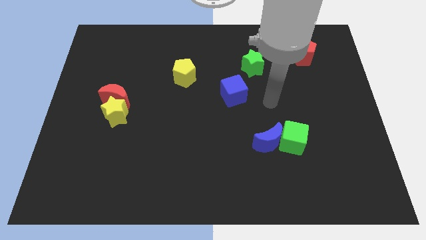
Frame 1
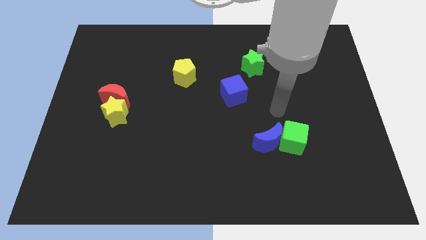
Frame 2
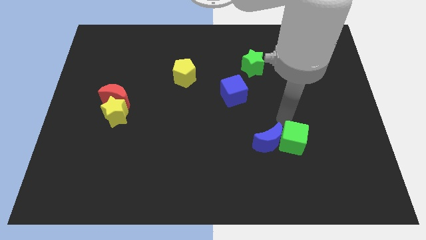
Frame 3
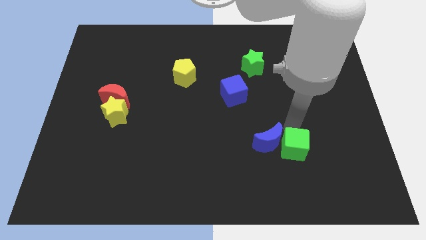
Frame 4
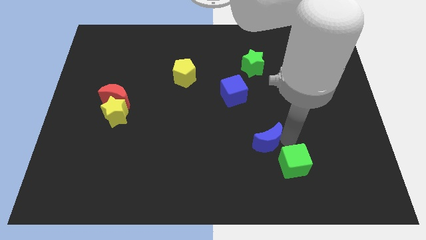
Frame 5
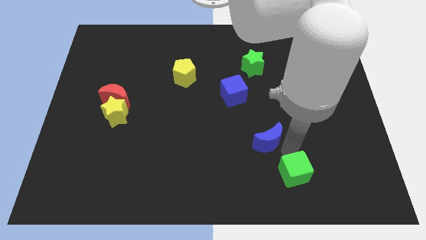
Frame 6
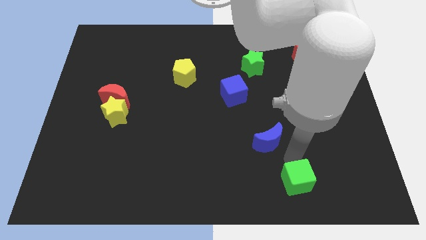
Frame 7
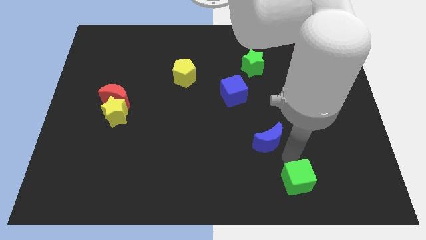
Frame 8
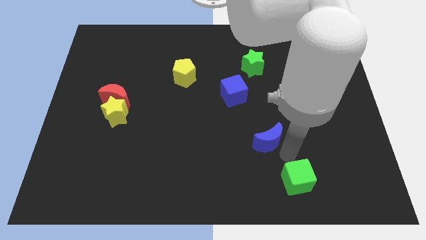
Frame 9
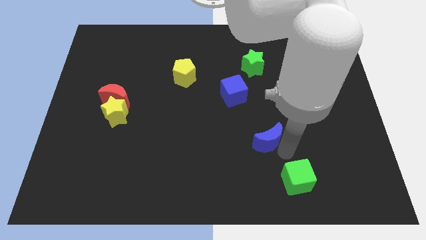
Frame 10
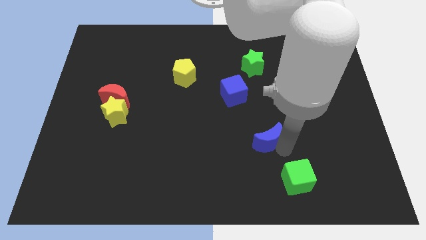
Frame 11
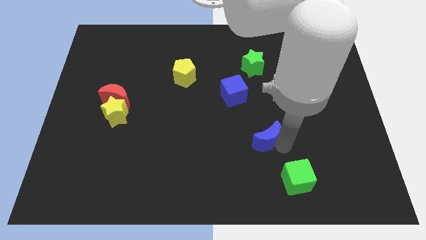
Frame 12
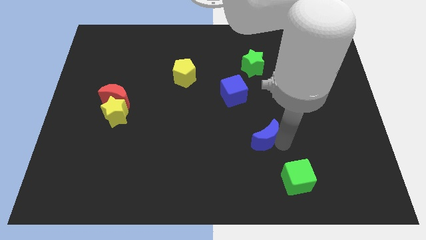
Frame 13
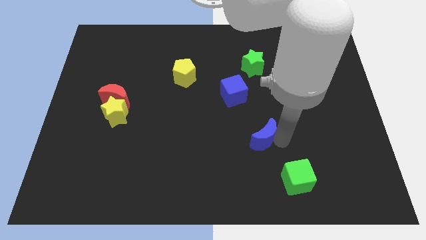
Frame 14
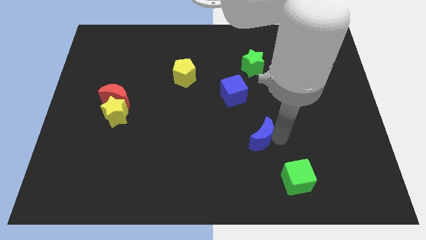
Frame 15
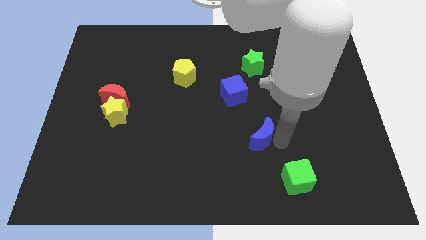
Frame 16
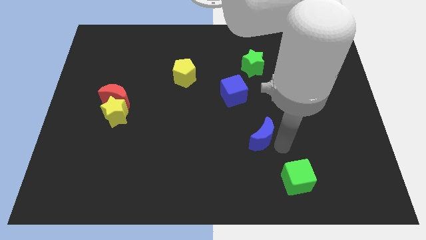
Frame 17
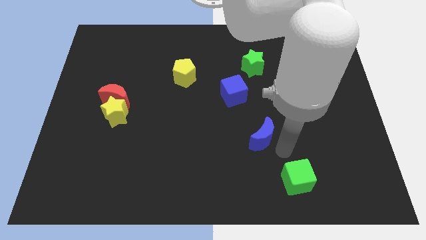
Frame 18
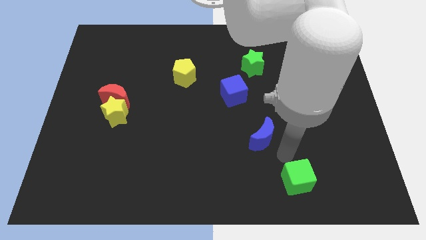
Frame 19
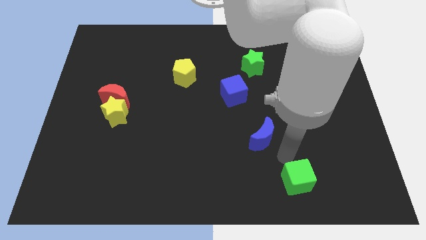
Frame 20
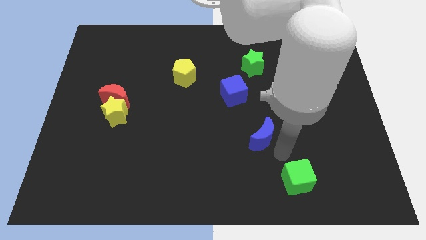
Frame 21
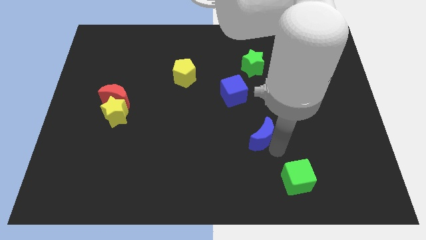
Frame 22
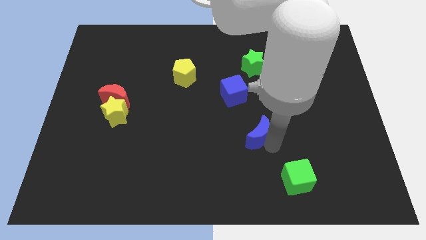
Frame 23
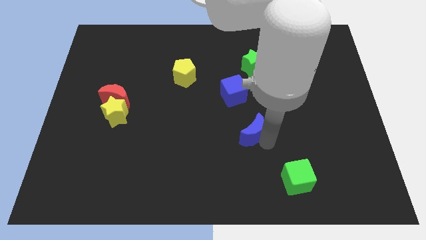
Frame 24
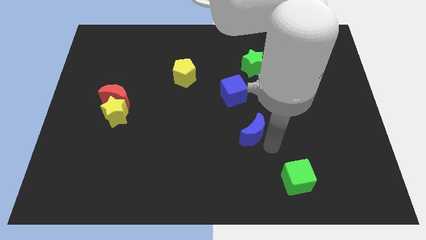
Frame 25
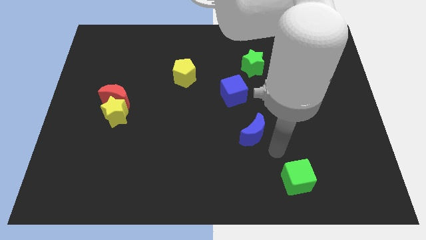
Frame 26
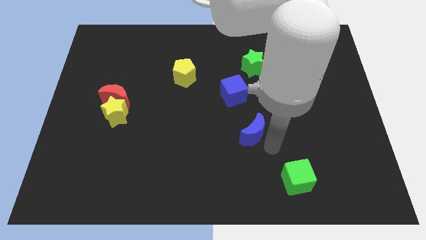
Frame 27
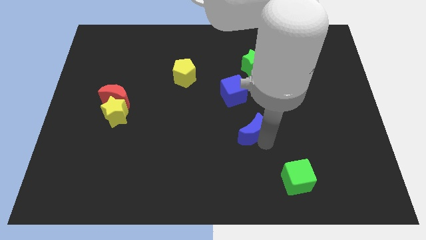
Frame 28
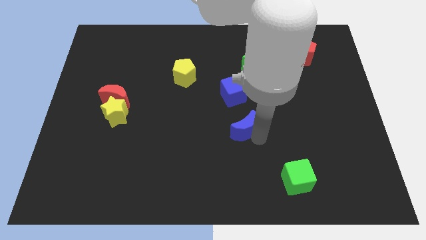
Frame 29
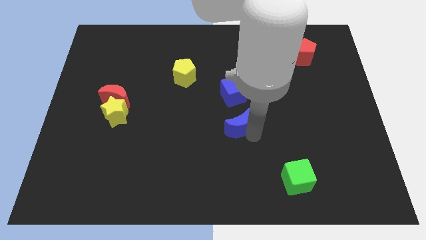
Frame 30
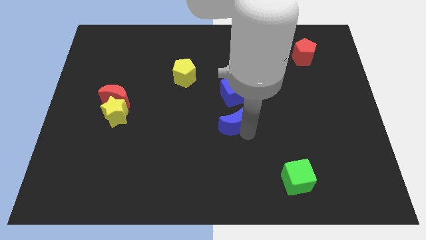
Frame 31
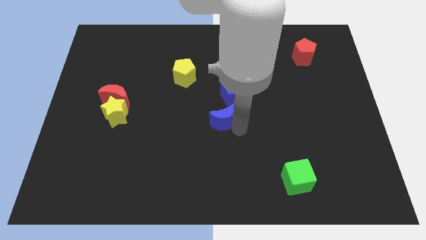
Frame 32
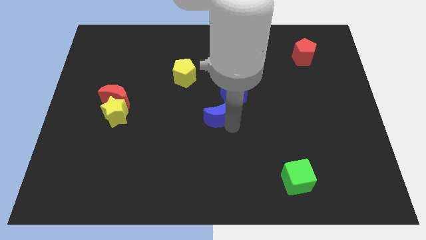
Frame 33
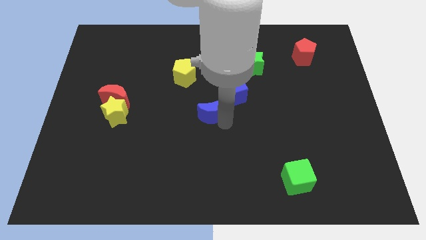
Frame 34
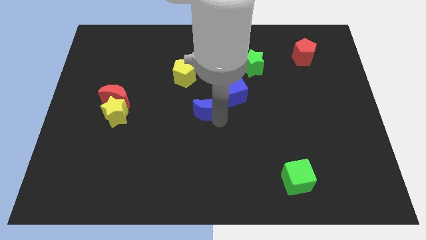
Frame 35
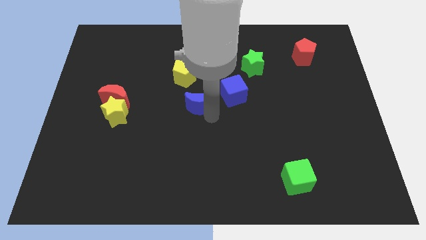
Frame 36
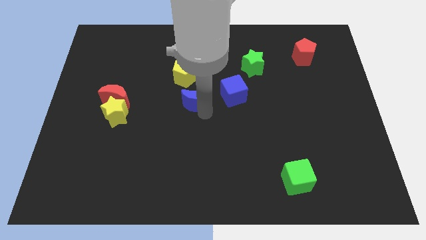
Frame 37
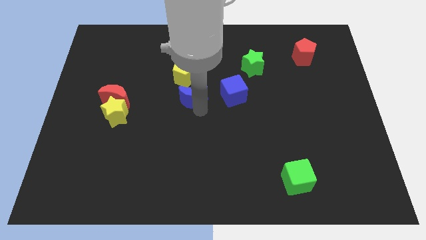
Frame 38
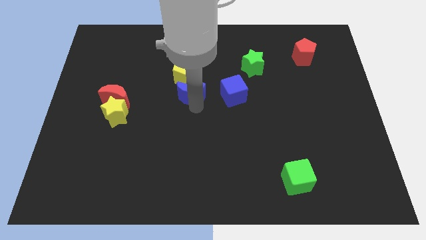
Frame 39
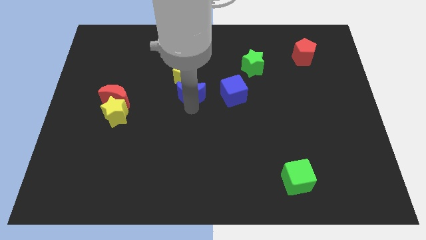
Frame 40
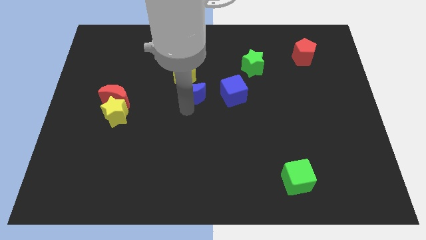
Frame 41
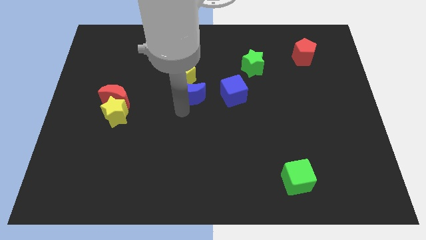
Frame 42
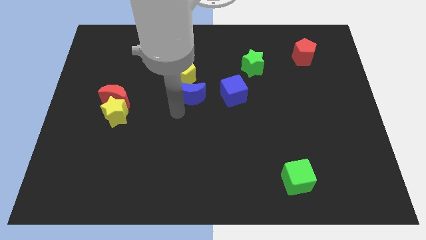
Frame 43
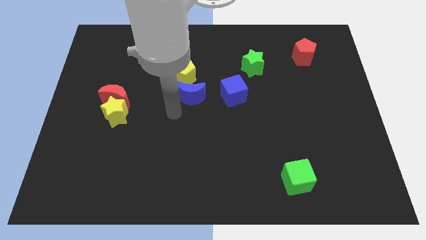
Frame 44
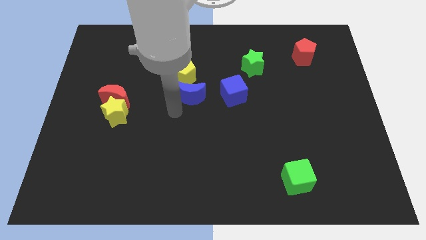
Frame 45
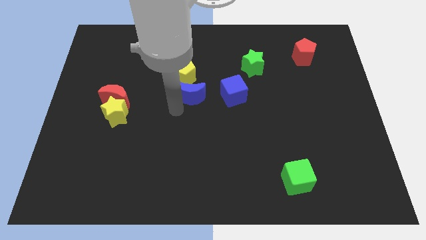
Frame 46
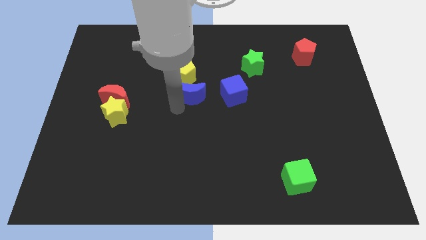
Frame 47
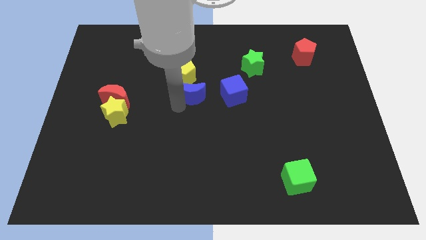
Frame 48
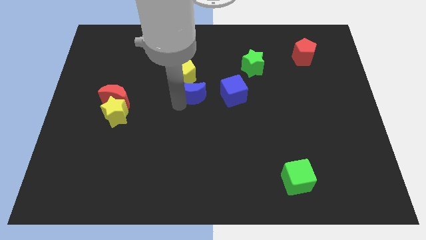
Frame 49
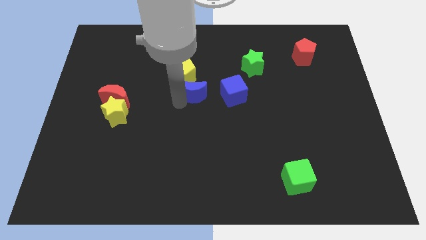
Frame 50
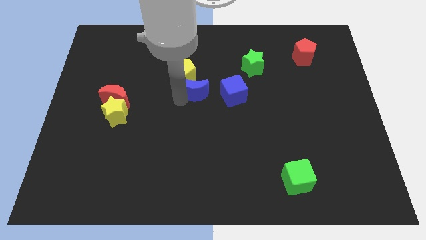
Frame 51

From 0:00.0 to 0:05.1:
push the blue moon close to the yellow pentagon

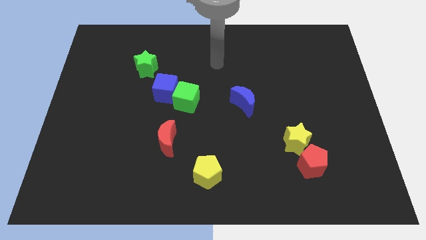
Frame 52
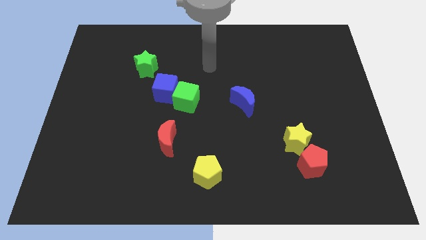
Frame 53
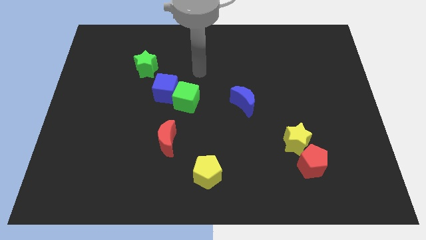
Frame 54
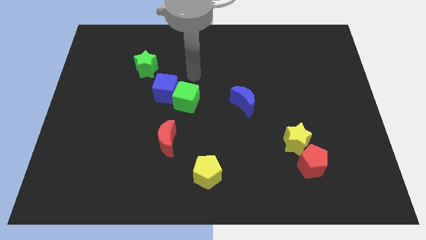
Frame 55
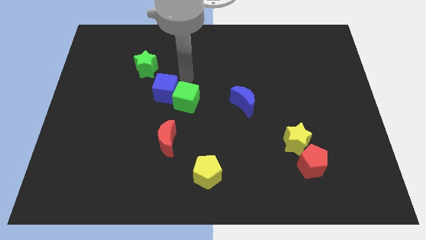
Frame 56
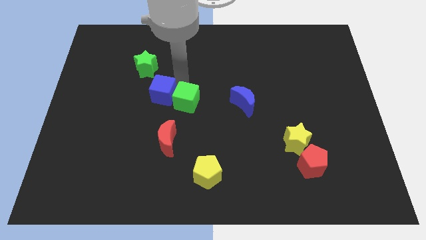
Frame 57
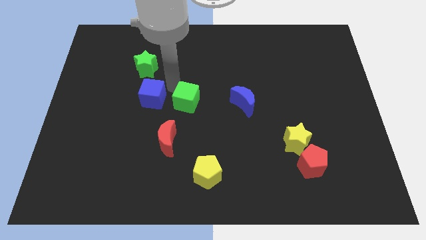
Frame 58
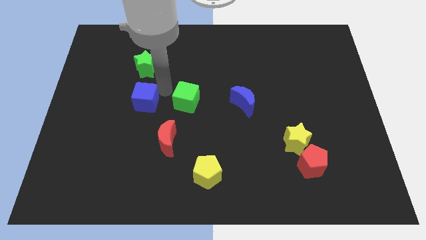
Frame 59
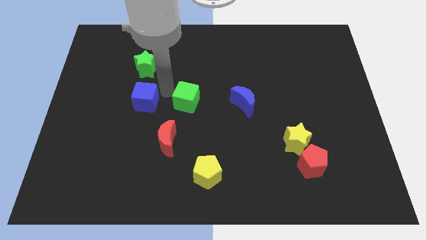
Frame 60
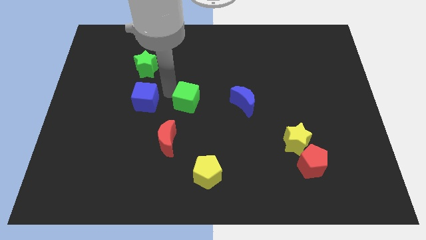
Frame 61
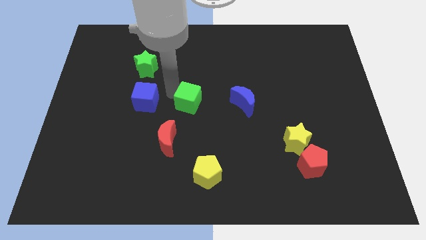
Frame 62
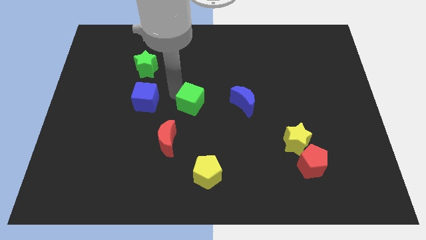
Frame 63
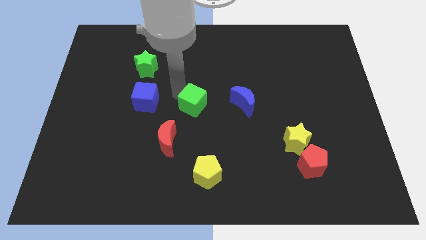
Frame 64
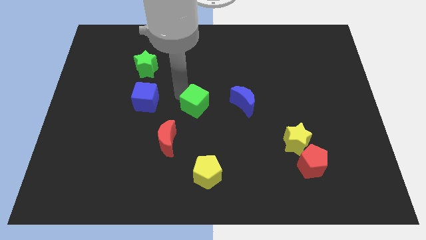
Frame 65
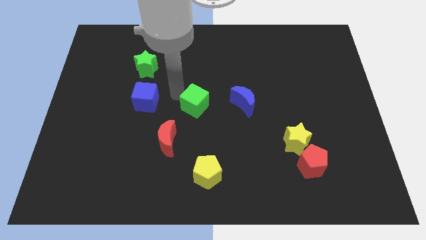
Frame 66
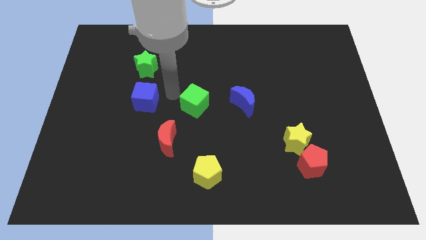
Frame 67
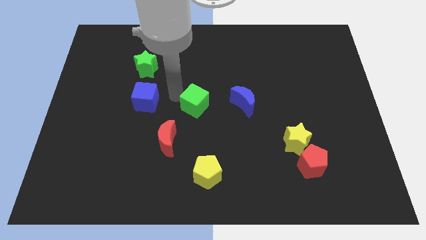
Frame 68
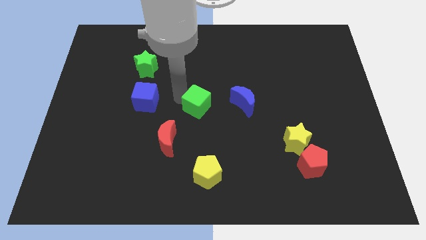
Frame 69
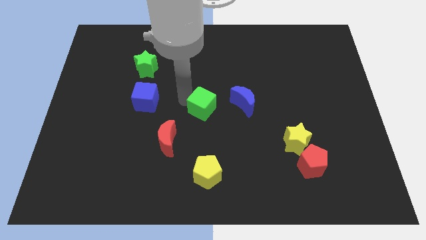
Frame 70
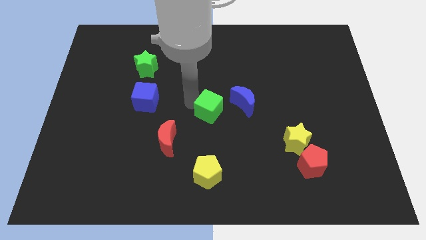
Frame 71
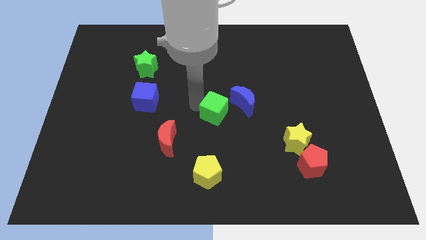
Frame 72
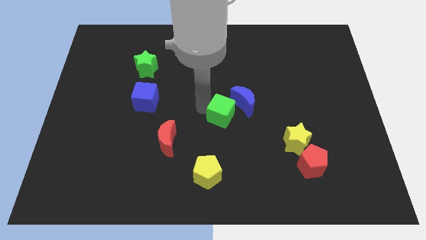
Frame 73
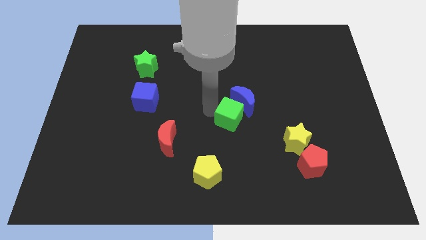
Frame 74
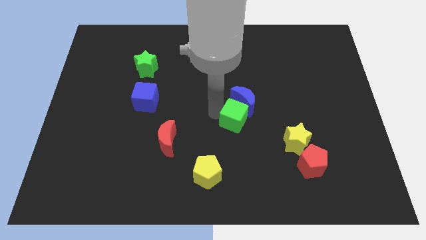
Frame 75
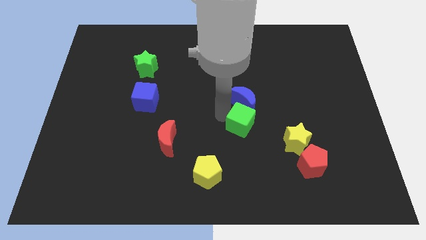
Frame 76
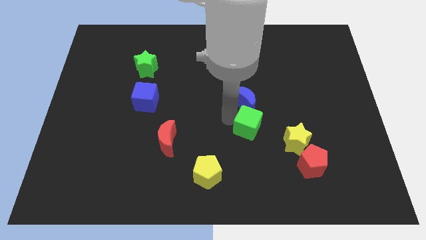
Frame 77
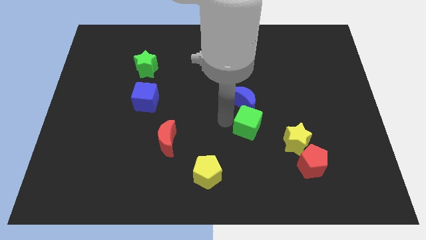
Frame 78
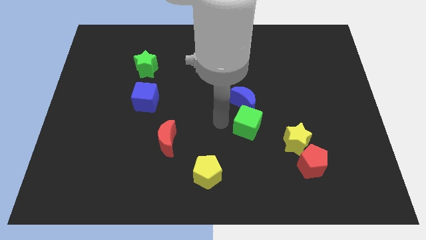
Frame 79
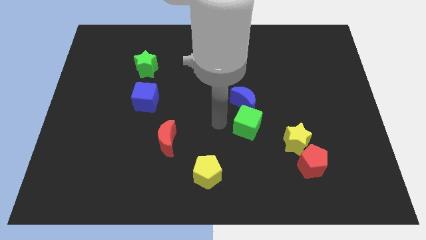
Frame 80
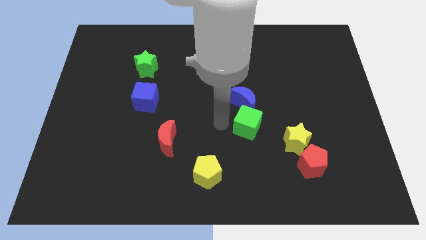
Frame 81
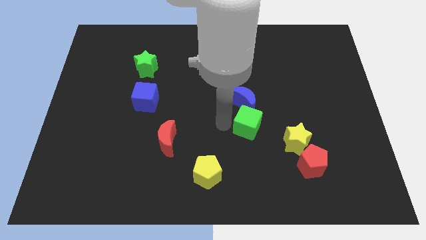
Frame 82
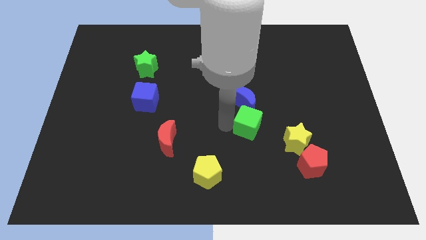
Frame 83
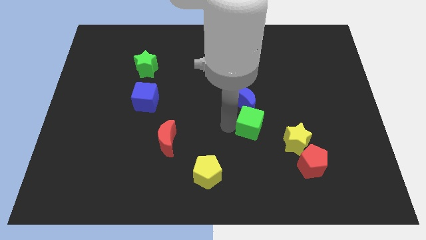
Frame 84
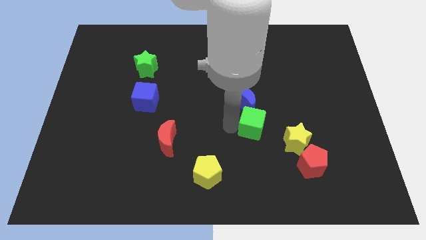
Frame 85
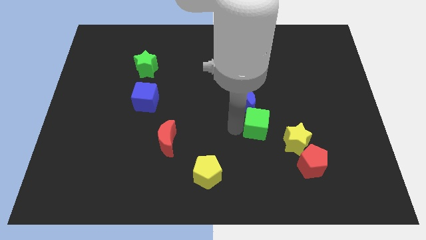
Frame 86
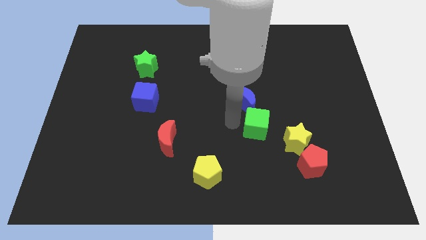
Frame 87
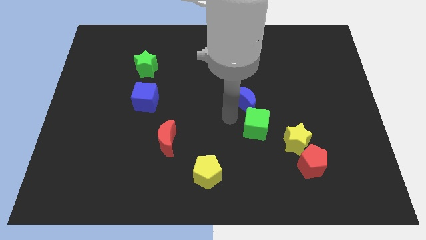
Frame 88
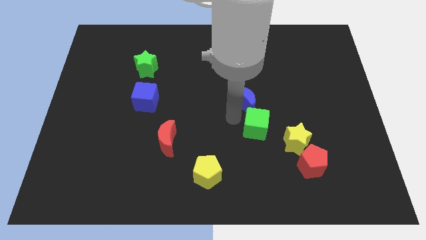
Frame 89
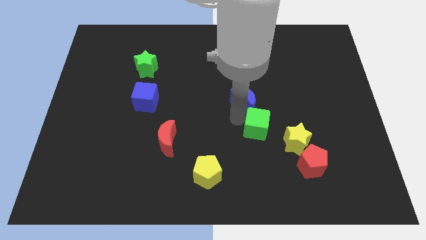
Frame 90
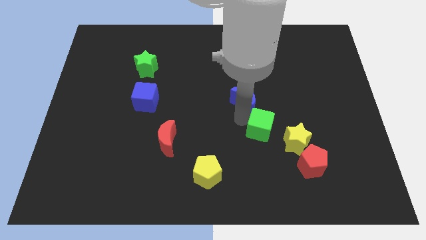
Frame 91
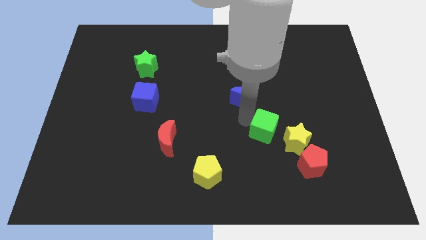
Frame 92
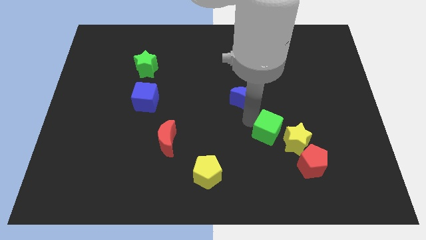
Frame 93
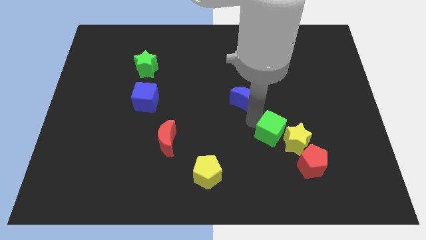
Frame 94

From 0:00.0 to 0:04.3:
push the green cube close to the yellow star
